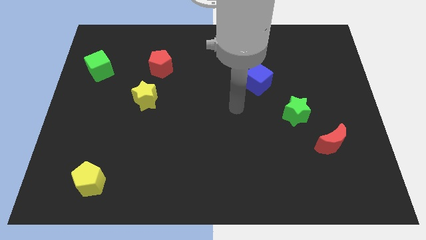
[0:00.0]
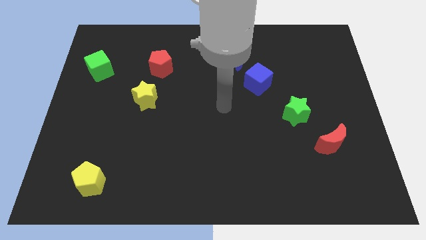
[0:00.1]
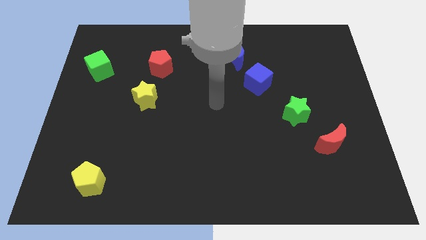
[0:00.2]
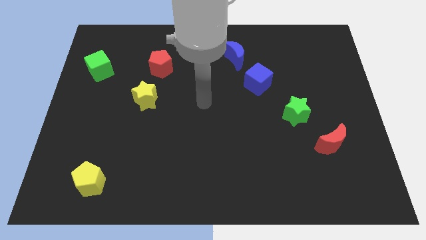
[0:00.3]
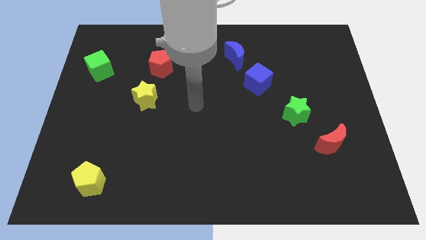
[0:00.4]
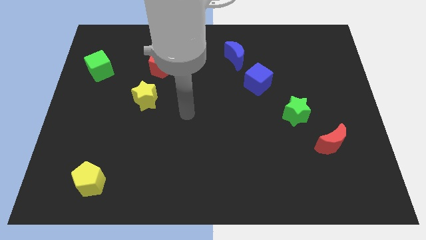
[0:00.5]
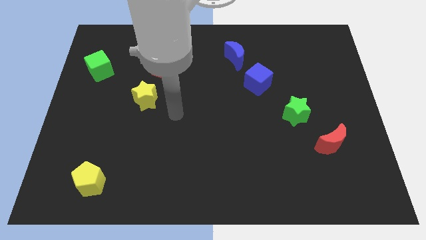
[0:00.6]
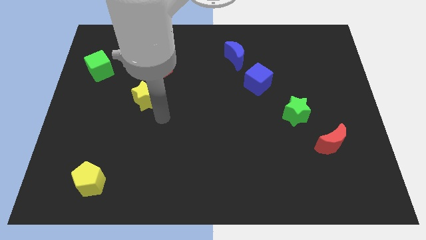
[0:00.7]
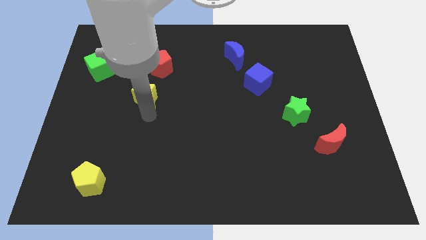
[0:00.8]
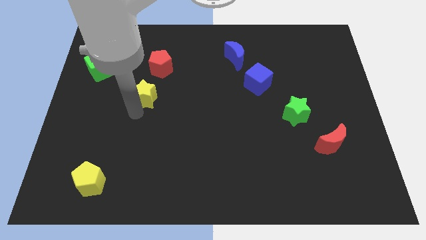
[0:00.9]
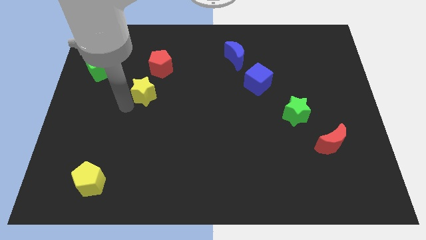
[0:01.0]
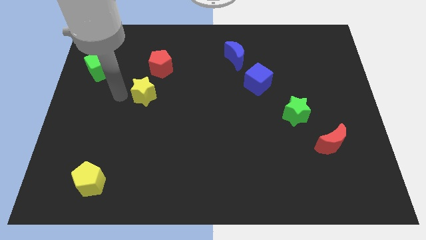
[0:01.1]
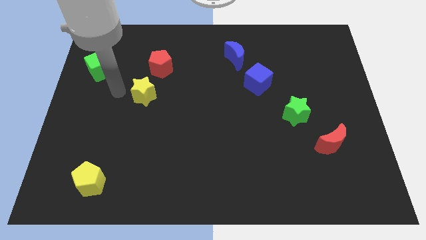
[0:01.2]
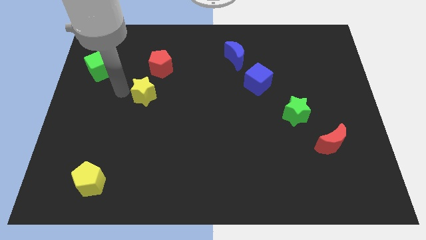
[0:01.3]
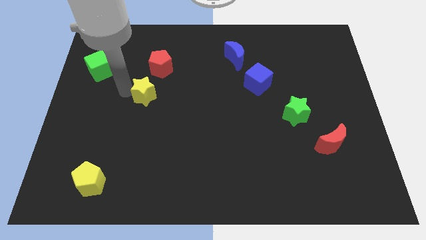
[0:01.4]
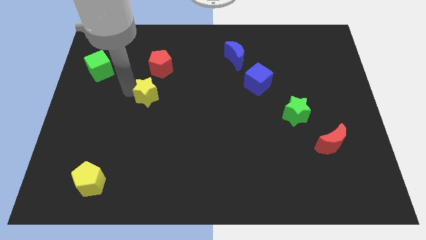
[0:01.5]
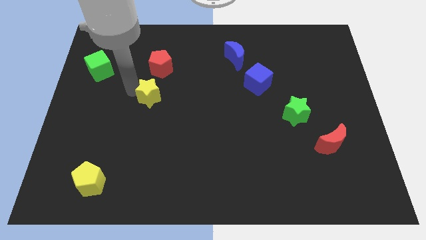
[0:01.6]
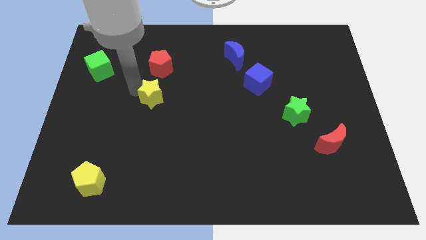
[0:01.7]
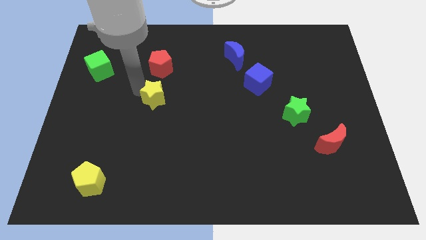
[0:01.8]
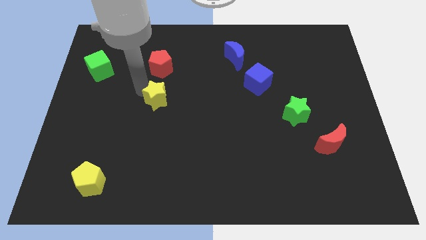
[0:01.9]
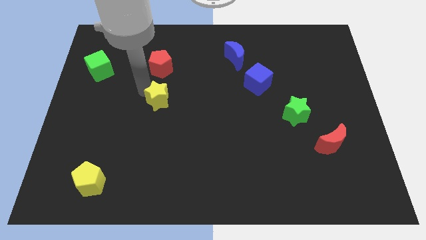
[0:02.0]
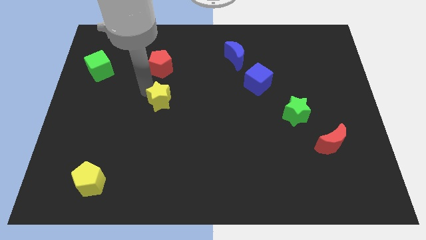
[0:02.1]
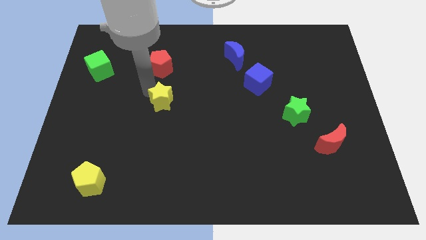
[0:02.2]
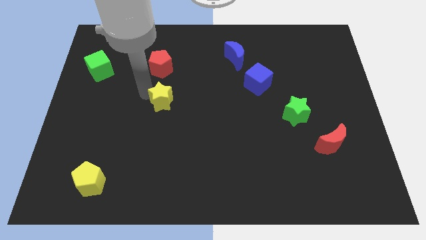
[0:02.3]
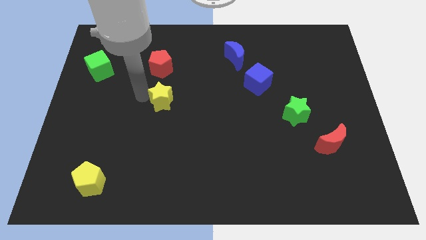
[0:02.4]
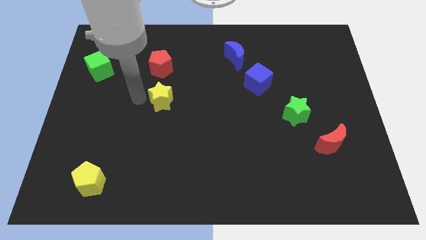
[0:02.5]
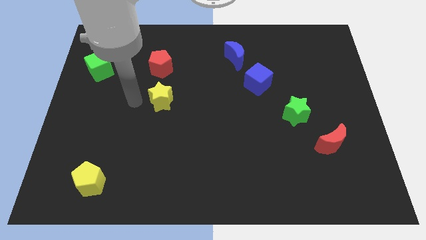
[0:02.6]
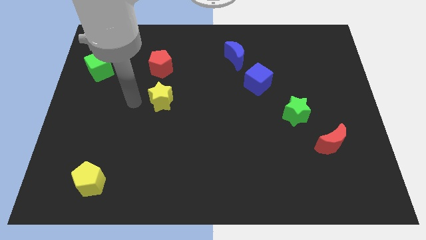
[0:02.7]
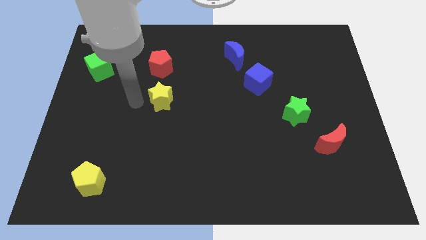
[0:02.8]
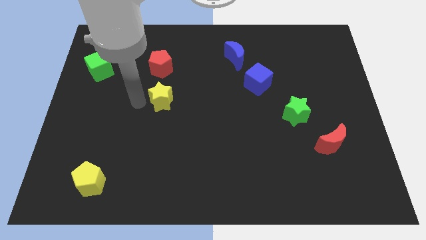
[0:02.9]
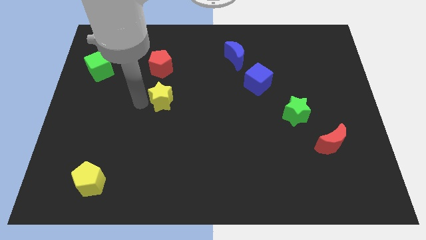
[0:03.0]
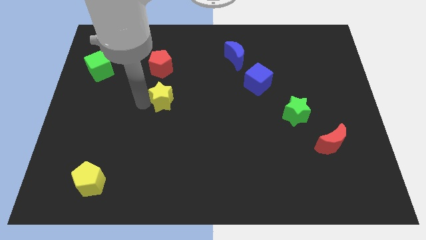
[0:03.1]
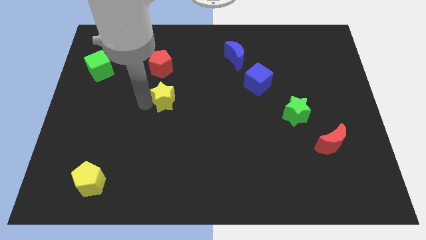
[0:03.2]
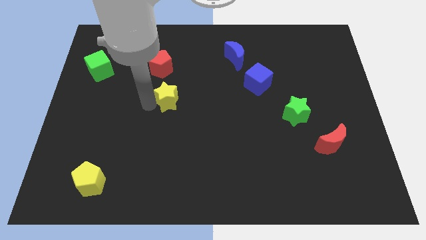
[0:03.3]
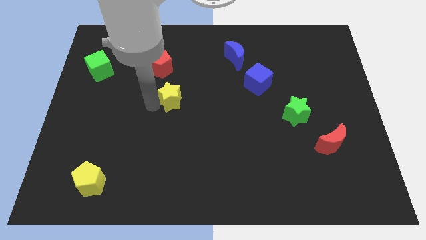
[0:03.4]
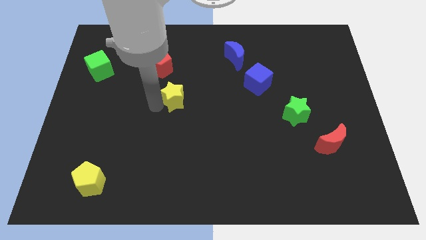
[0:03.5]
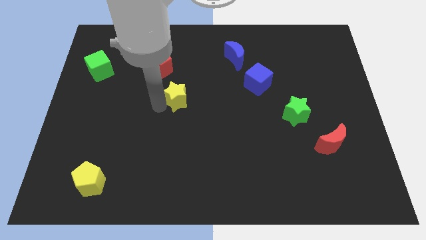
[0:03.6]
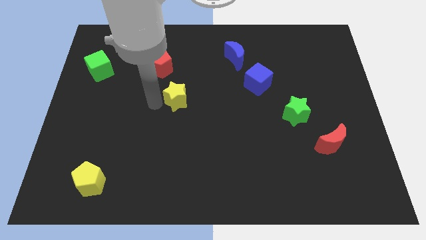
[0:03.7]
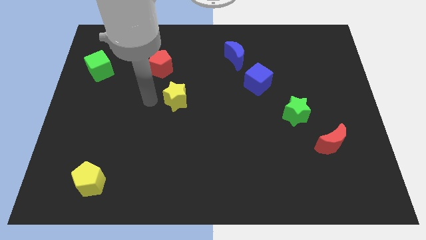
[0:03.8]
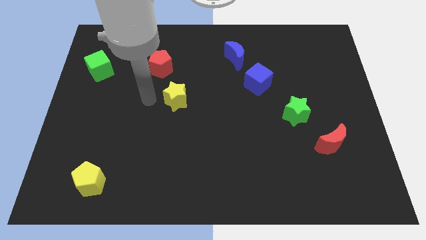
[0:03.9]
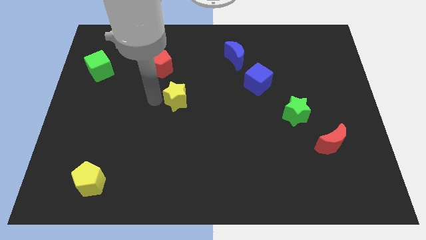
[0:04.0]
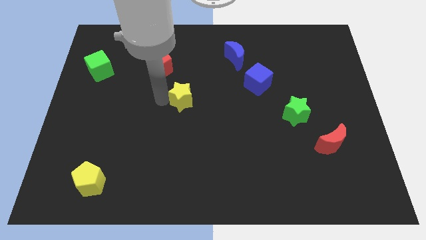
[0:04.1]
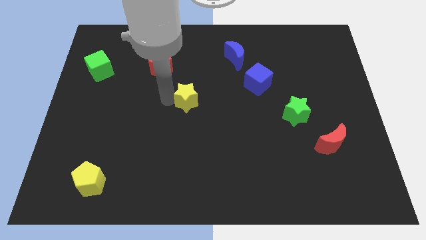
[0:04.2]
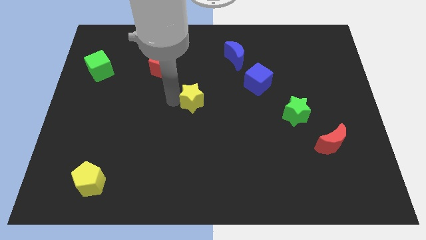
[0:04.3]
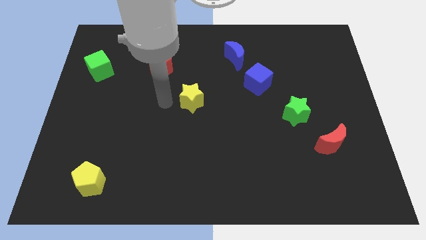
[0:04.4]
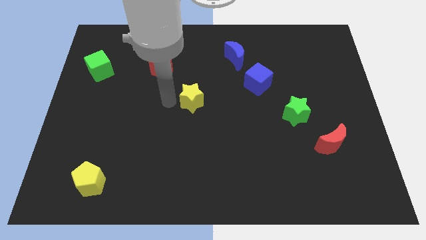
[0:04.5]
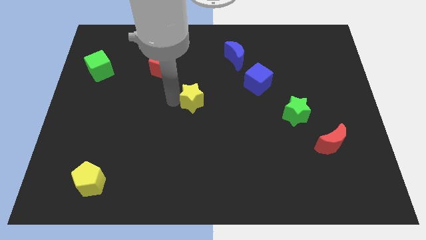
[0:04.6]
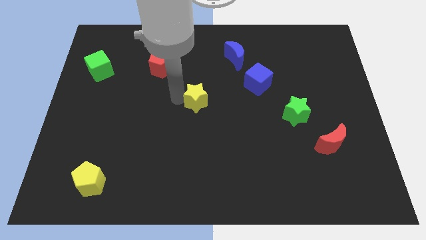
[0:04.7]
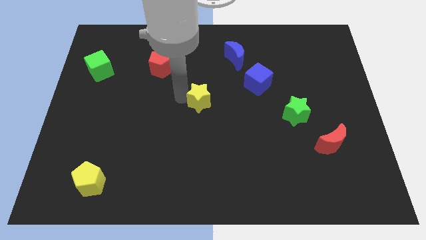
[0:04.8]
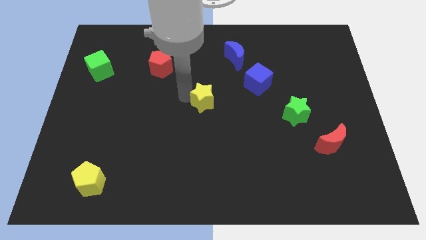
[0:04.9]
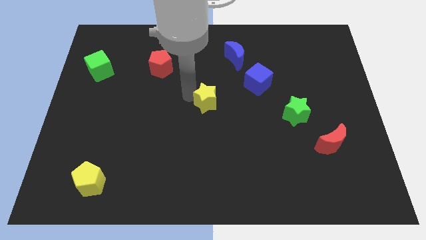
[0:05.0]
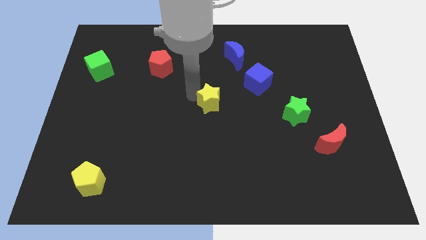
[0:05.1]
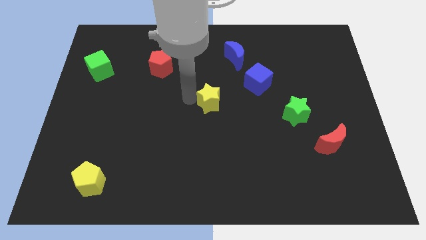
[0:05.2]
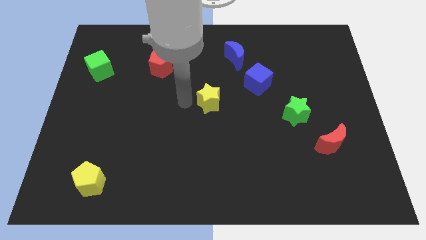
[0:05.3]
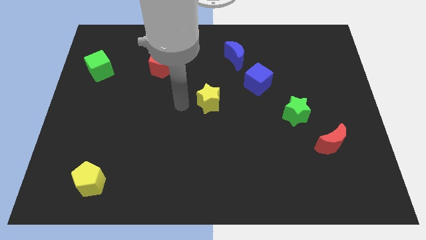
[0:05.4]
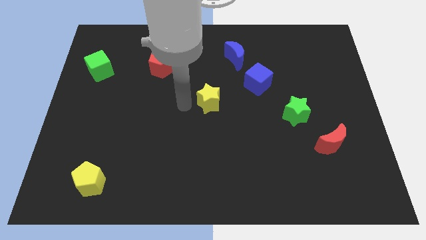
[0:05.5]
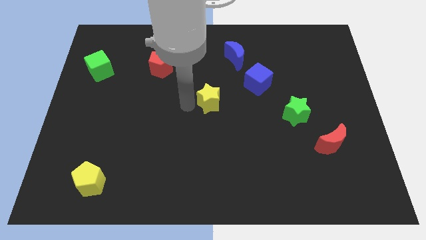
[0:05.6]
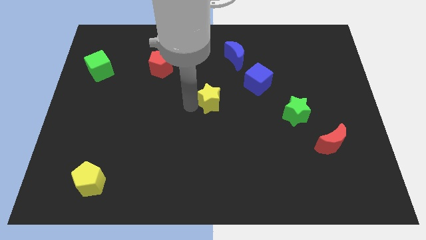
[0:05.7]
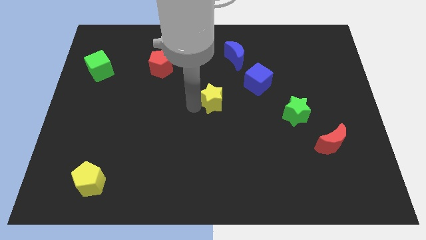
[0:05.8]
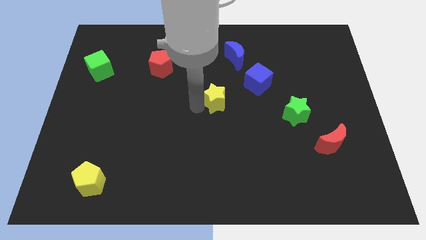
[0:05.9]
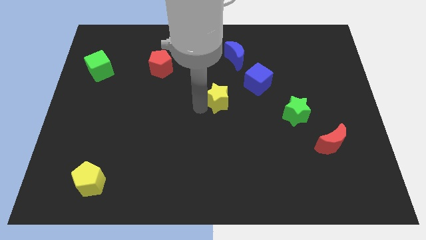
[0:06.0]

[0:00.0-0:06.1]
move the yellow star to the bottom left of the blue cube

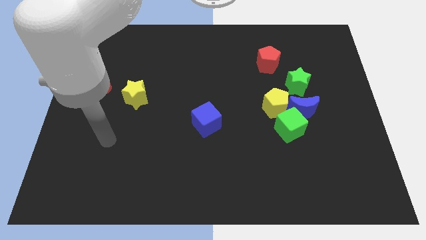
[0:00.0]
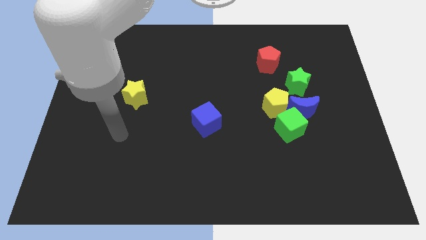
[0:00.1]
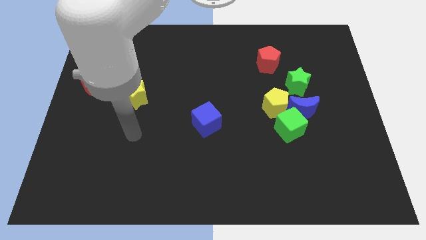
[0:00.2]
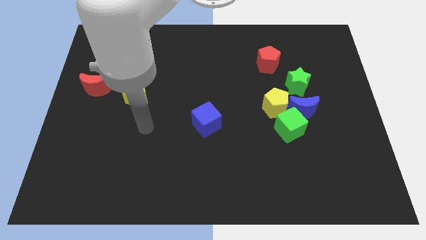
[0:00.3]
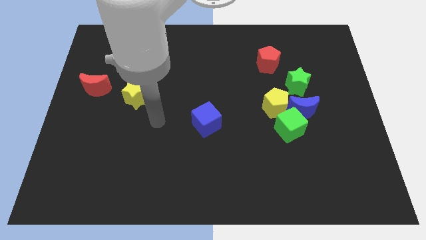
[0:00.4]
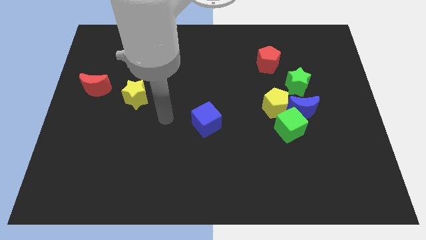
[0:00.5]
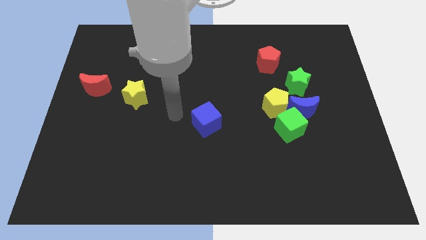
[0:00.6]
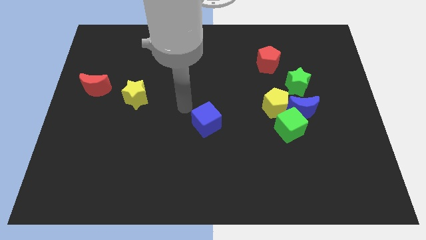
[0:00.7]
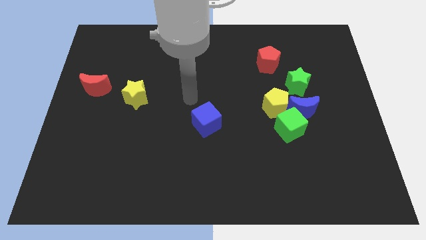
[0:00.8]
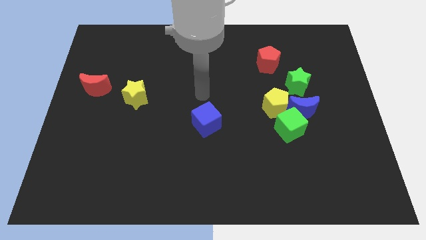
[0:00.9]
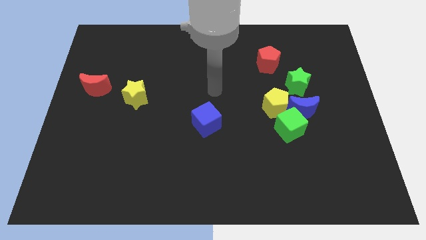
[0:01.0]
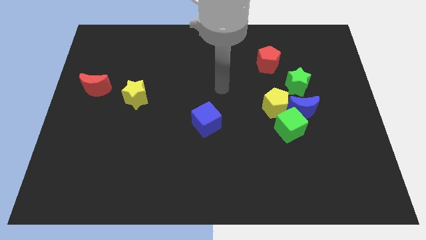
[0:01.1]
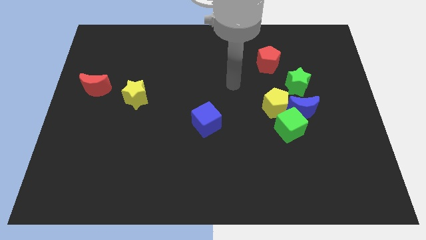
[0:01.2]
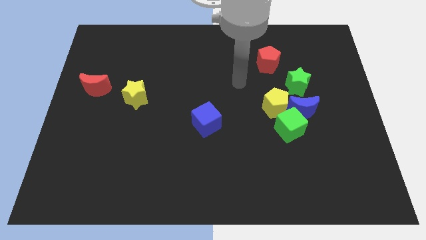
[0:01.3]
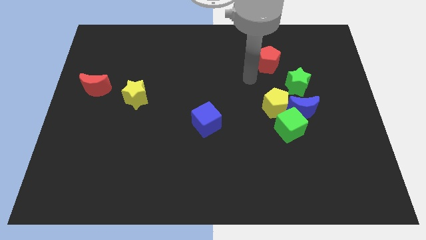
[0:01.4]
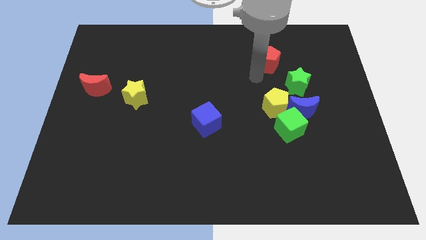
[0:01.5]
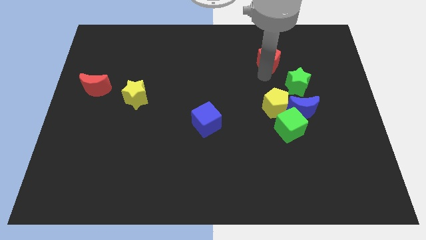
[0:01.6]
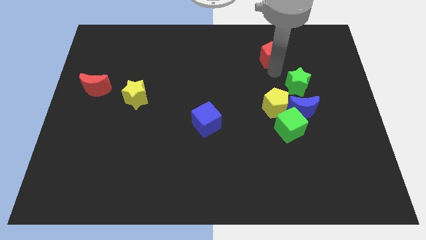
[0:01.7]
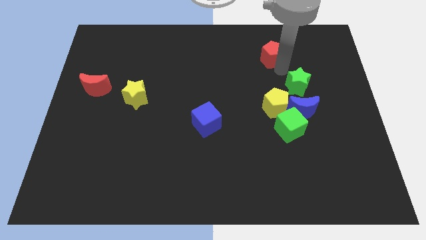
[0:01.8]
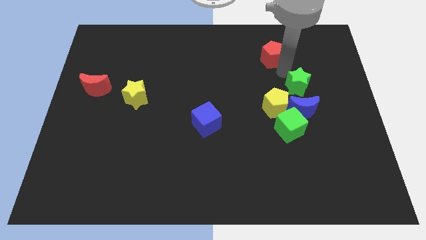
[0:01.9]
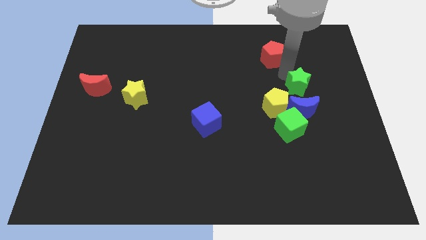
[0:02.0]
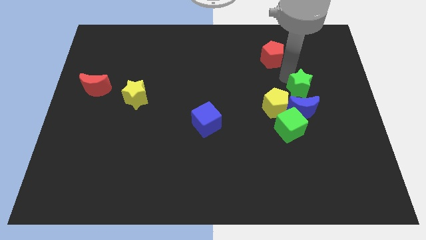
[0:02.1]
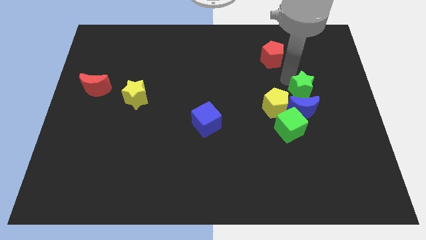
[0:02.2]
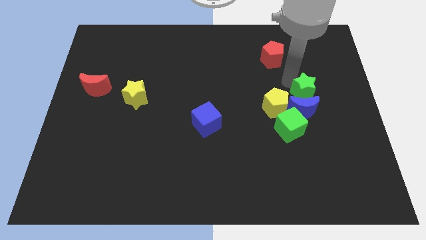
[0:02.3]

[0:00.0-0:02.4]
slide the green star right of the yellow pentagon
